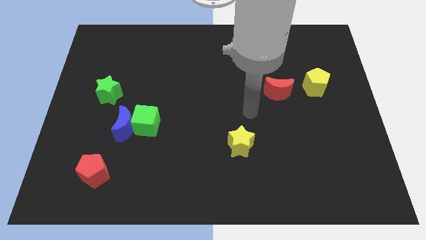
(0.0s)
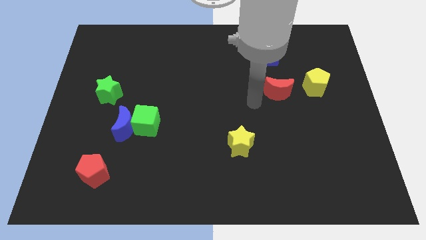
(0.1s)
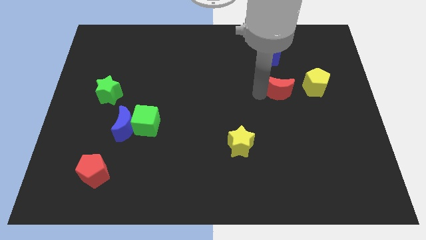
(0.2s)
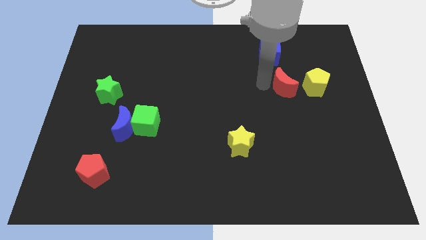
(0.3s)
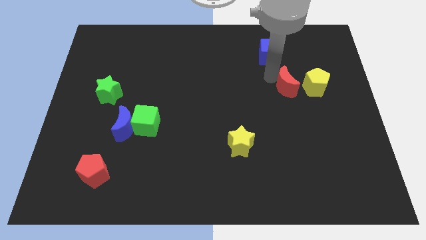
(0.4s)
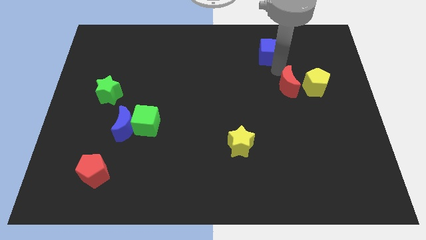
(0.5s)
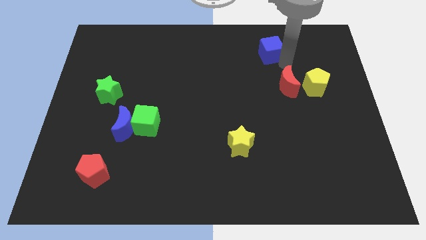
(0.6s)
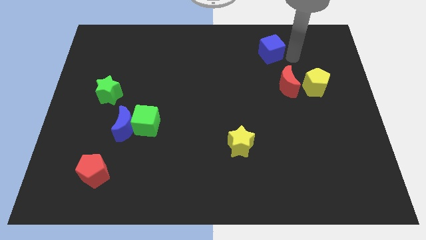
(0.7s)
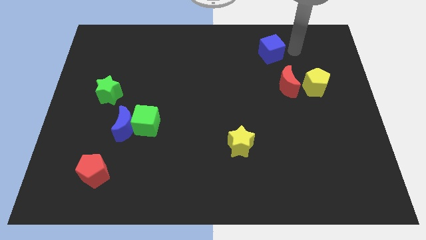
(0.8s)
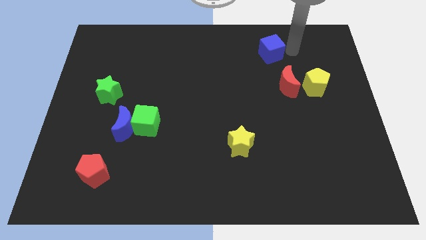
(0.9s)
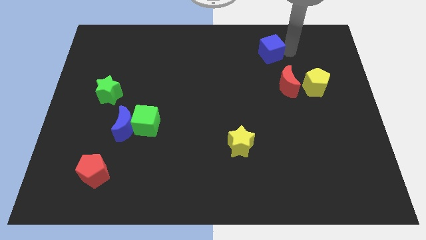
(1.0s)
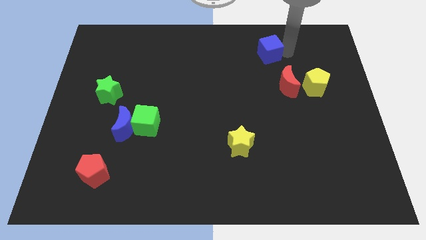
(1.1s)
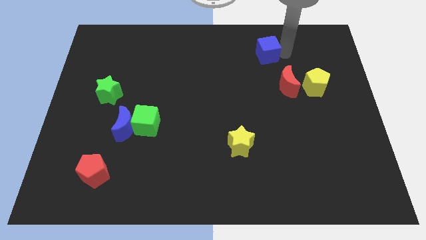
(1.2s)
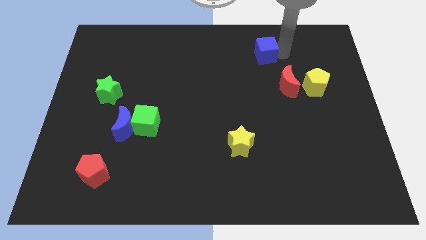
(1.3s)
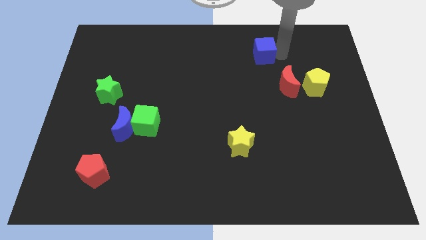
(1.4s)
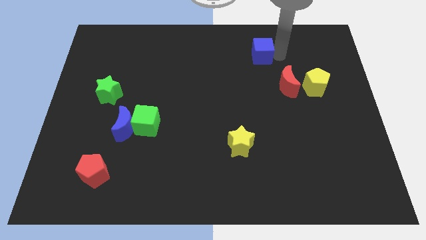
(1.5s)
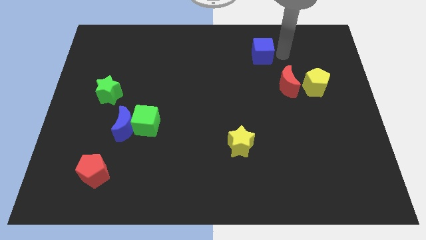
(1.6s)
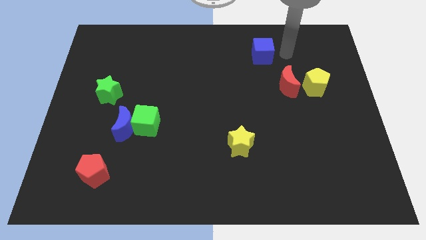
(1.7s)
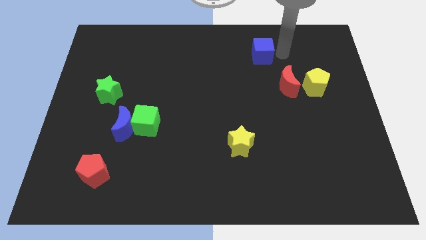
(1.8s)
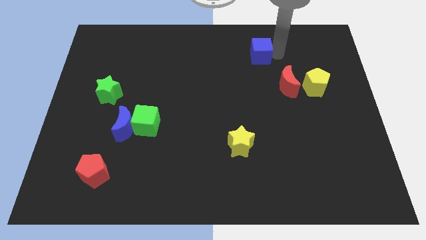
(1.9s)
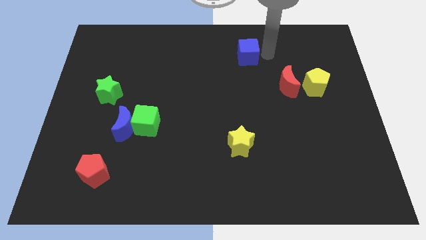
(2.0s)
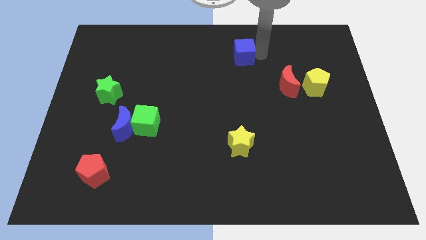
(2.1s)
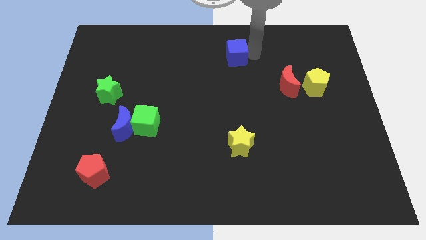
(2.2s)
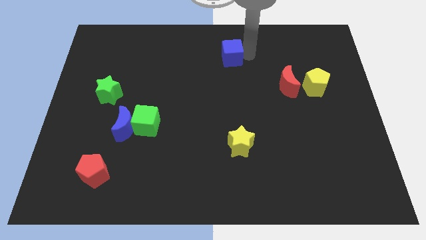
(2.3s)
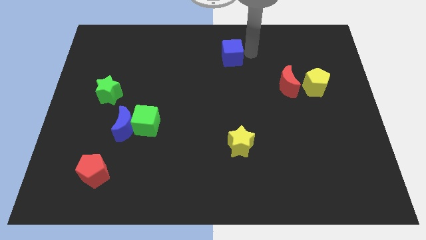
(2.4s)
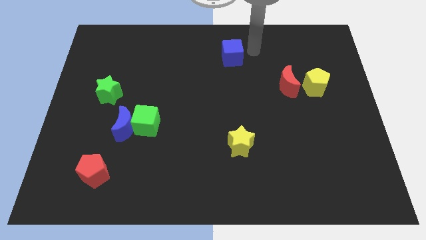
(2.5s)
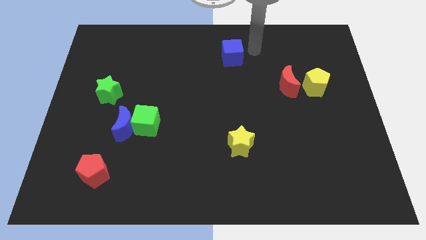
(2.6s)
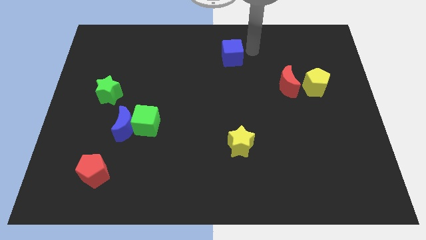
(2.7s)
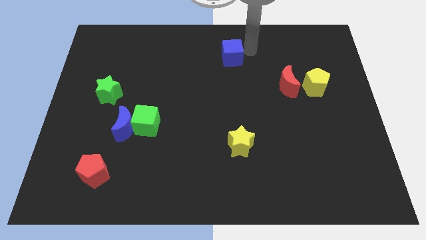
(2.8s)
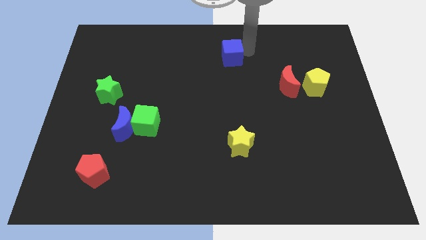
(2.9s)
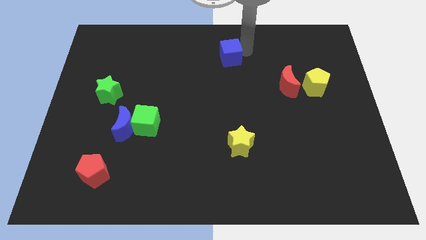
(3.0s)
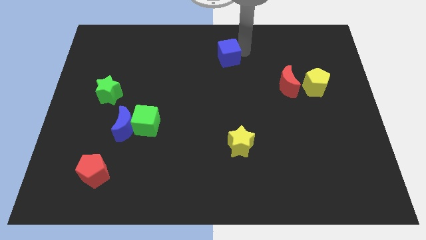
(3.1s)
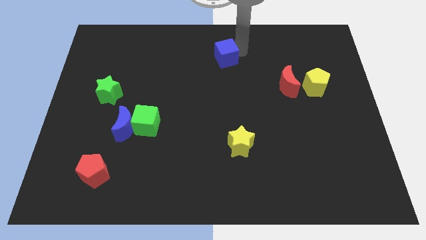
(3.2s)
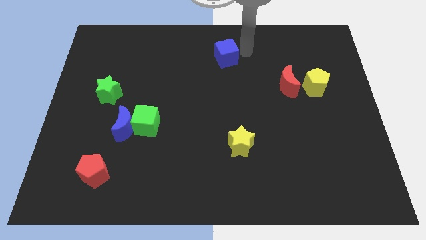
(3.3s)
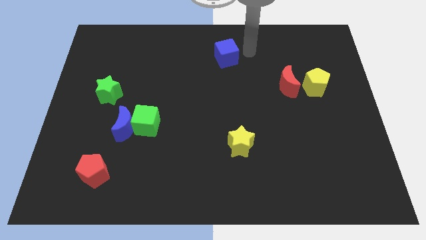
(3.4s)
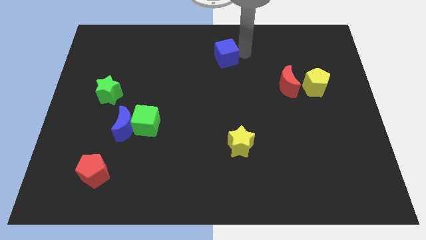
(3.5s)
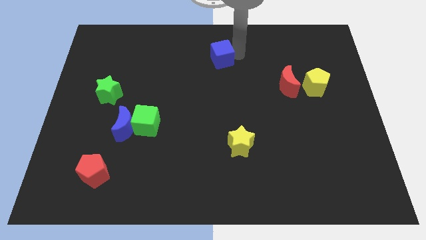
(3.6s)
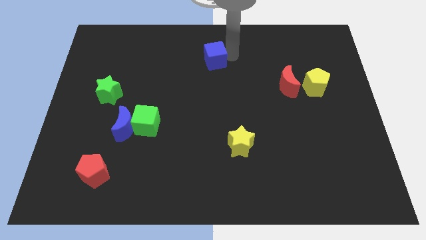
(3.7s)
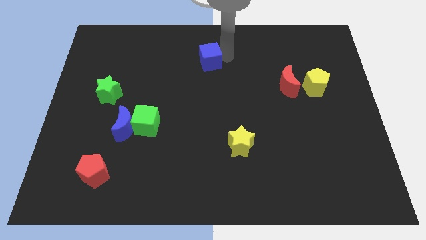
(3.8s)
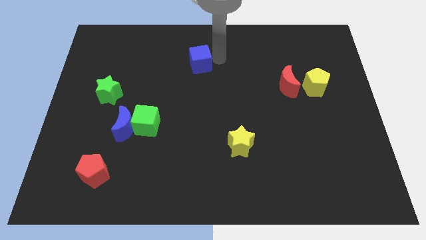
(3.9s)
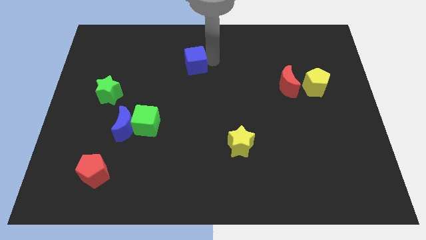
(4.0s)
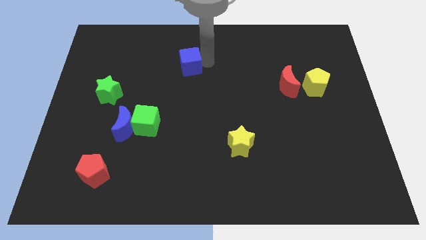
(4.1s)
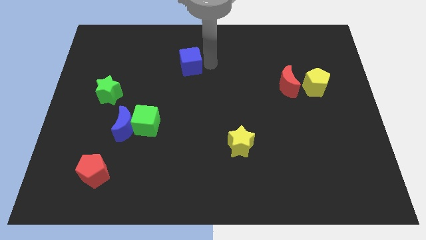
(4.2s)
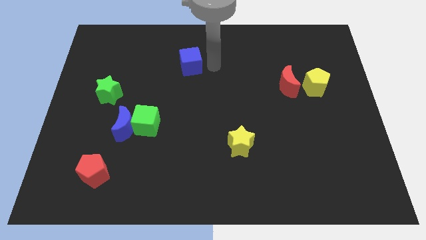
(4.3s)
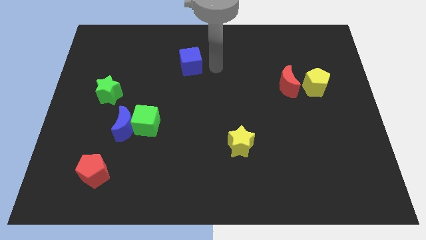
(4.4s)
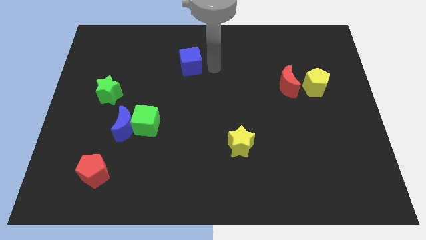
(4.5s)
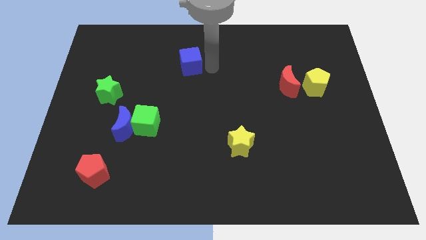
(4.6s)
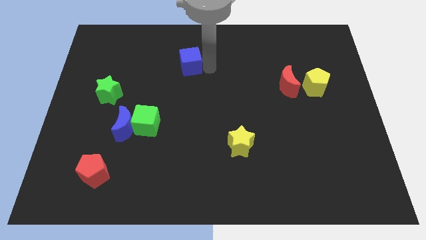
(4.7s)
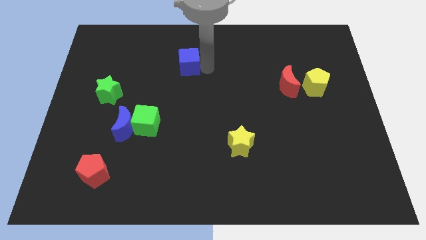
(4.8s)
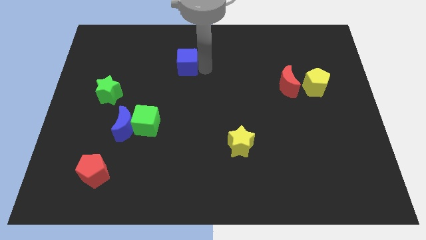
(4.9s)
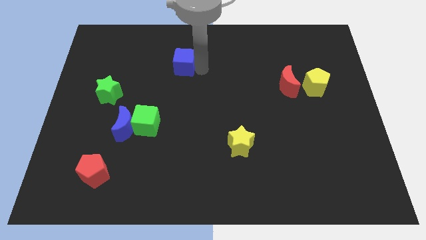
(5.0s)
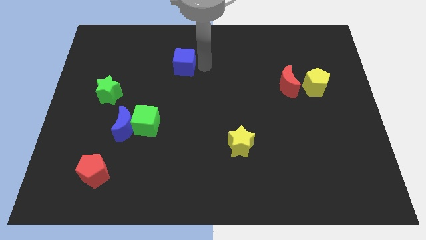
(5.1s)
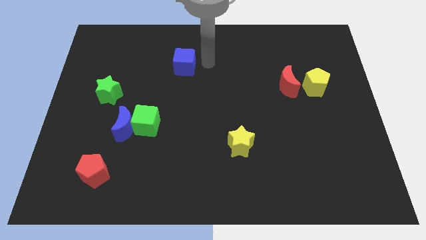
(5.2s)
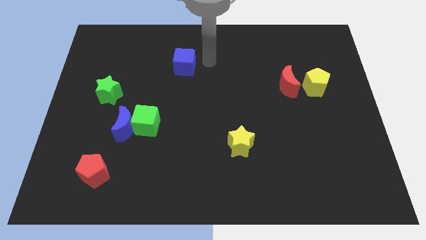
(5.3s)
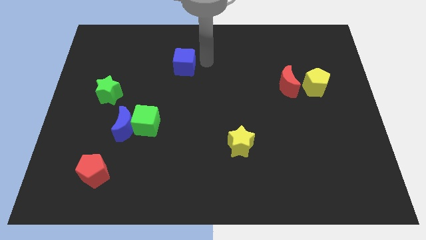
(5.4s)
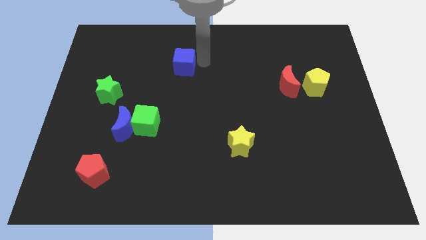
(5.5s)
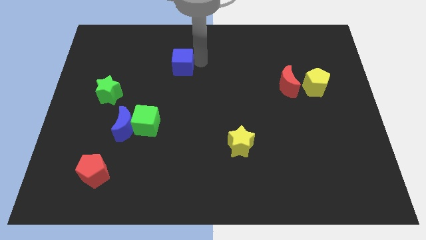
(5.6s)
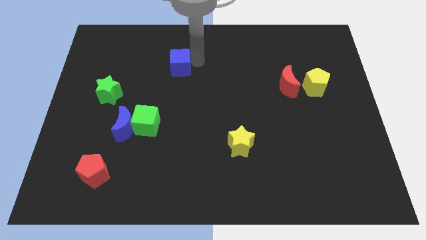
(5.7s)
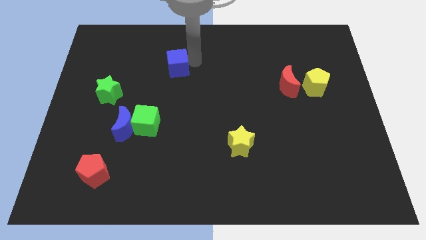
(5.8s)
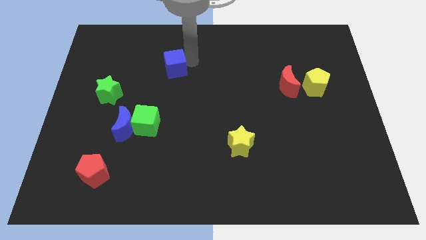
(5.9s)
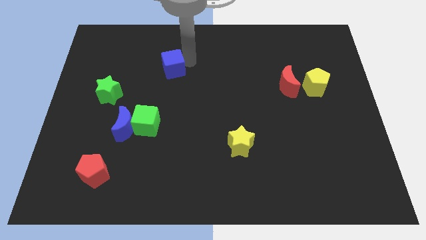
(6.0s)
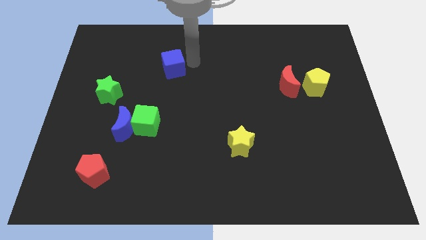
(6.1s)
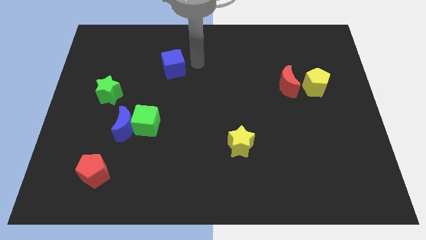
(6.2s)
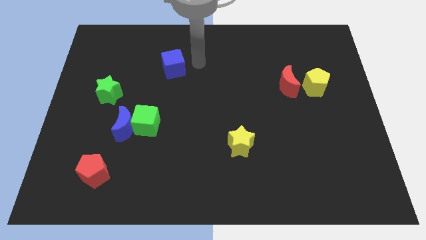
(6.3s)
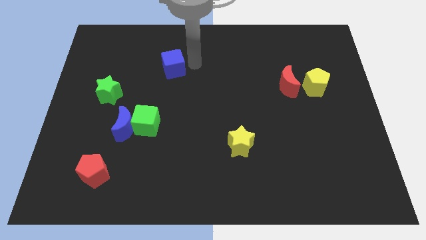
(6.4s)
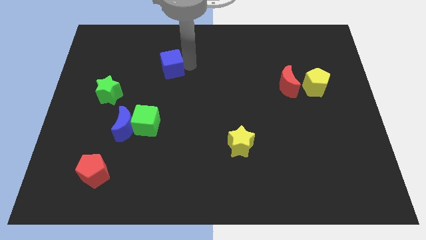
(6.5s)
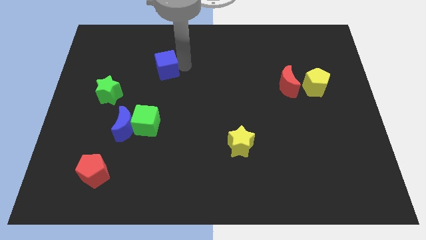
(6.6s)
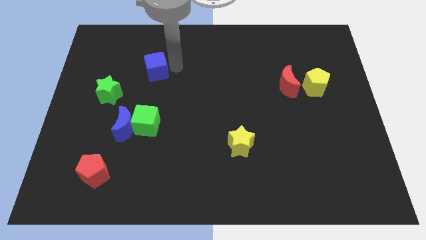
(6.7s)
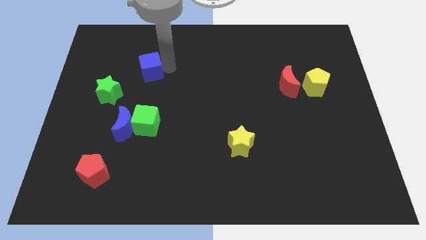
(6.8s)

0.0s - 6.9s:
slide the blue cube diagonally up and to the right of the green star

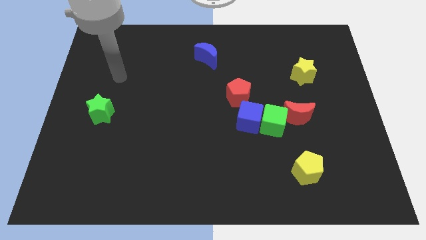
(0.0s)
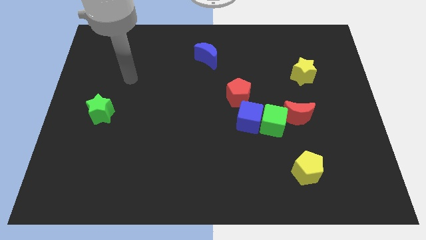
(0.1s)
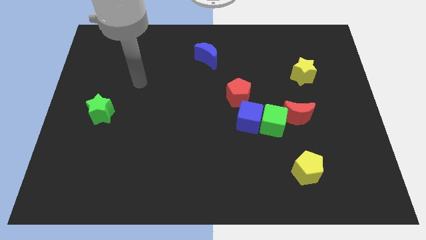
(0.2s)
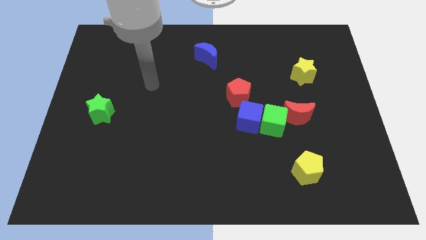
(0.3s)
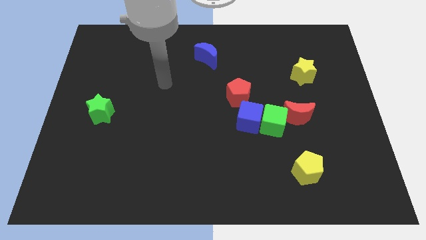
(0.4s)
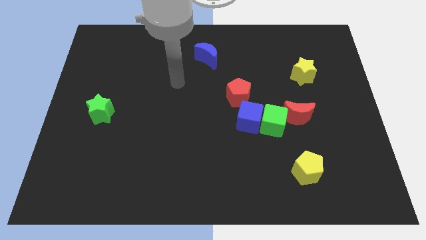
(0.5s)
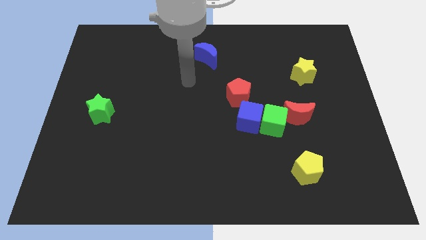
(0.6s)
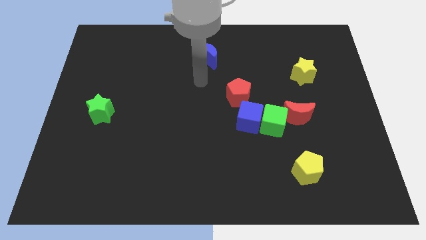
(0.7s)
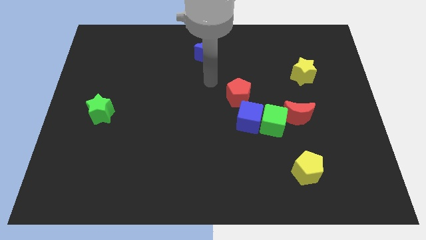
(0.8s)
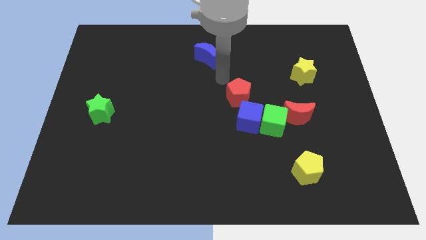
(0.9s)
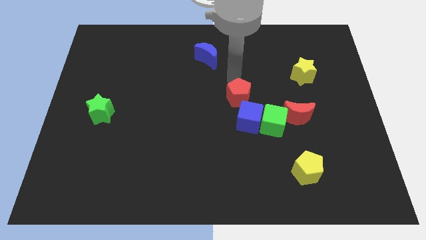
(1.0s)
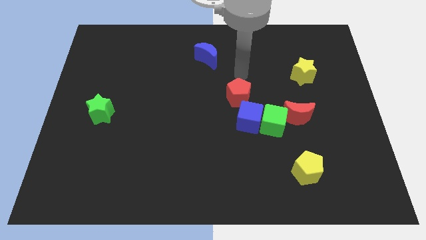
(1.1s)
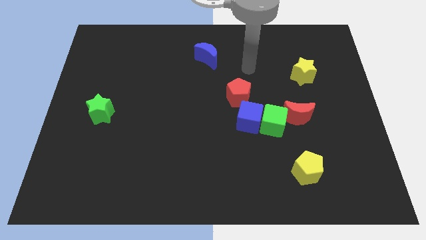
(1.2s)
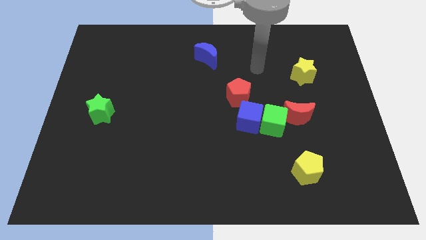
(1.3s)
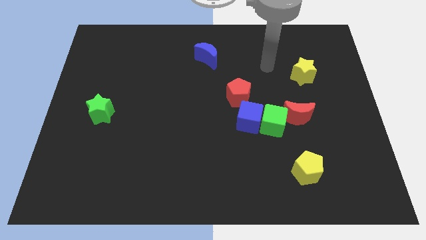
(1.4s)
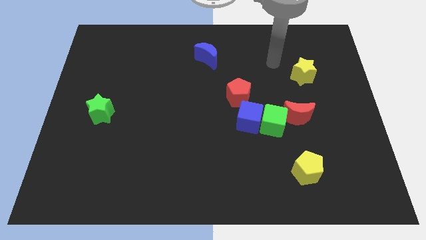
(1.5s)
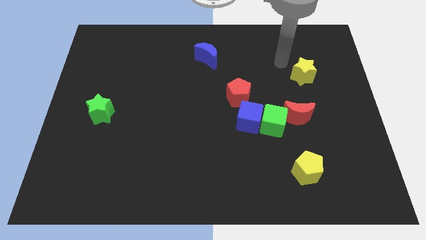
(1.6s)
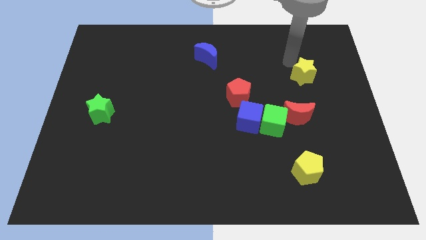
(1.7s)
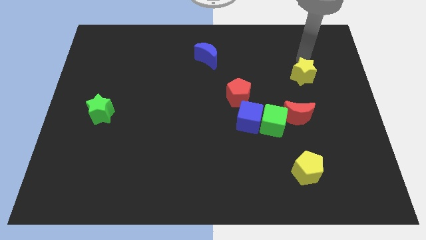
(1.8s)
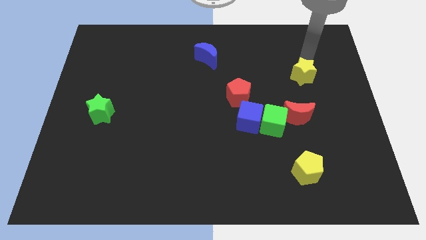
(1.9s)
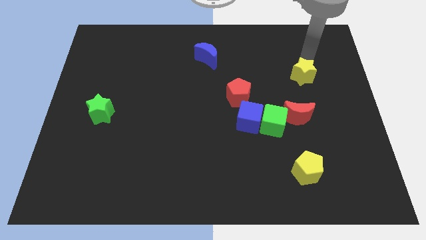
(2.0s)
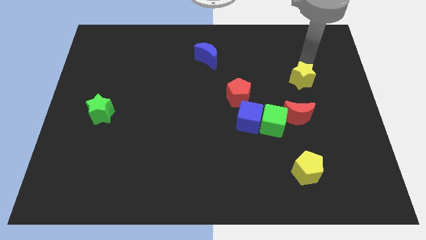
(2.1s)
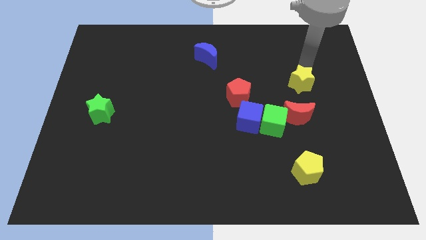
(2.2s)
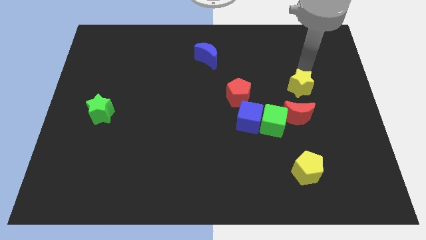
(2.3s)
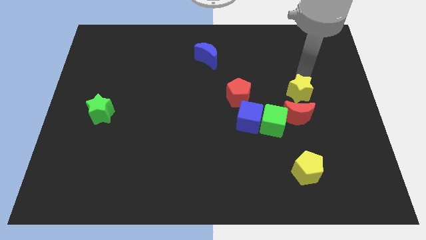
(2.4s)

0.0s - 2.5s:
put the yellow star to the top right of the green cube
